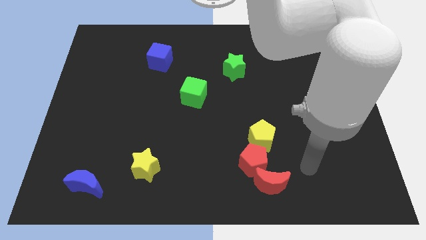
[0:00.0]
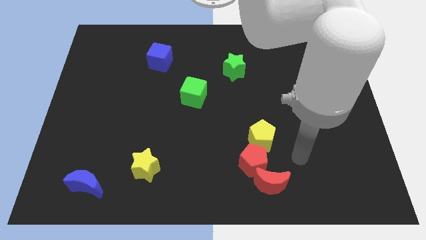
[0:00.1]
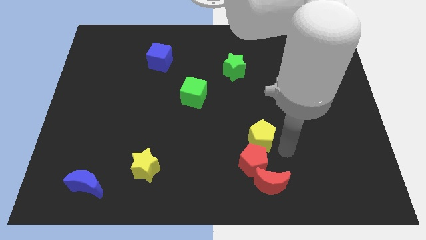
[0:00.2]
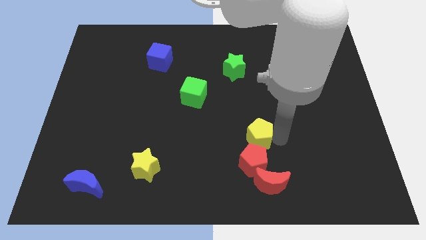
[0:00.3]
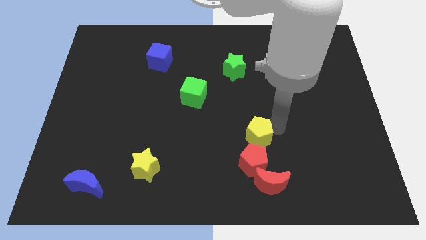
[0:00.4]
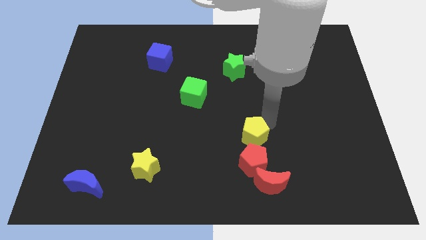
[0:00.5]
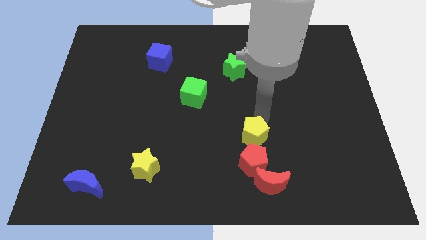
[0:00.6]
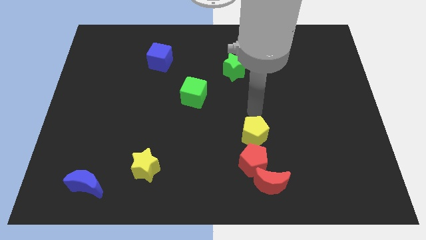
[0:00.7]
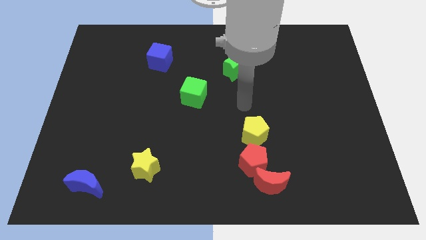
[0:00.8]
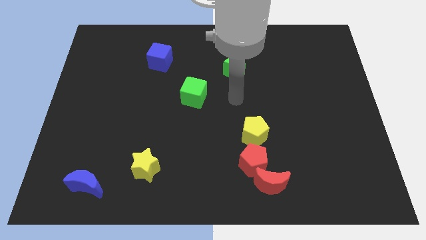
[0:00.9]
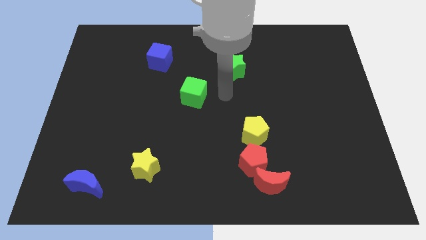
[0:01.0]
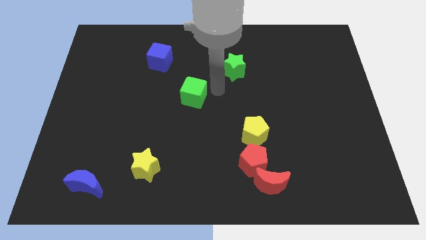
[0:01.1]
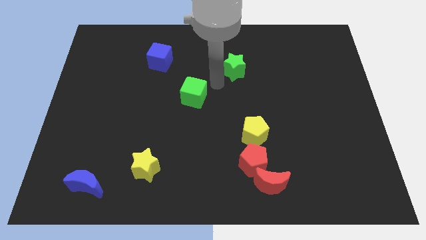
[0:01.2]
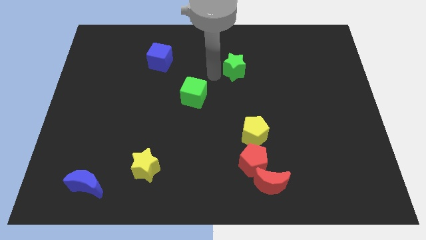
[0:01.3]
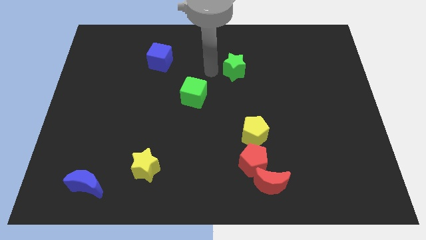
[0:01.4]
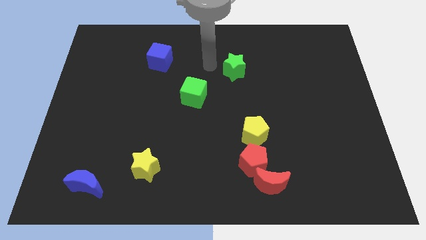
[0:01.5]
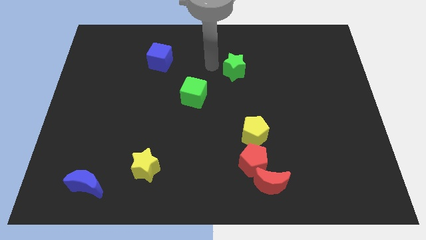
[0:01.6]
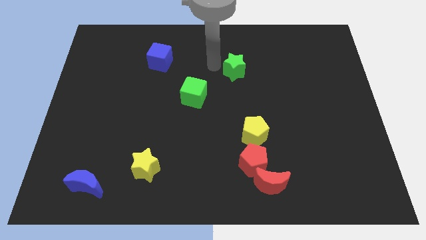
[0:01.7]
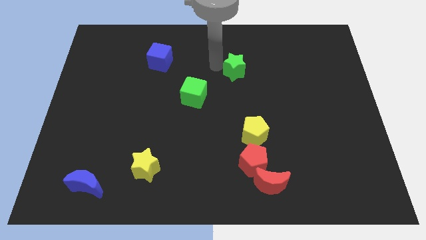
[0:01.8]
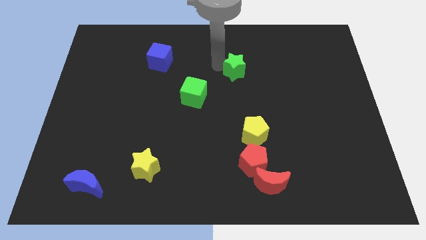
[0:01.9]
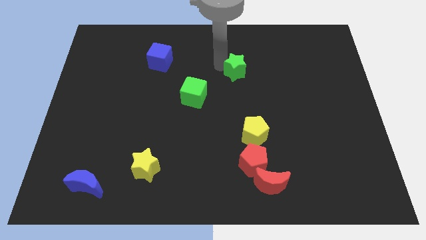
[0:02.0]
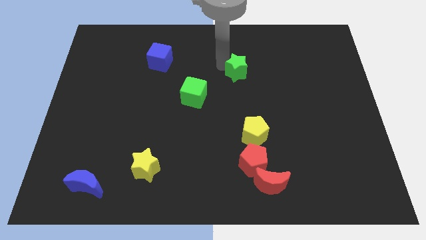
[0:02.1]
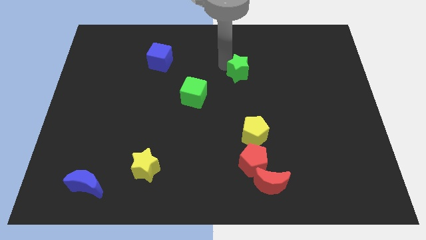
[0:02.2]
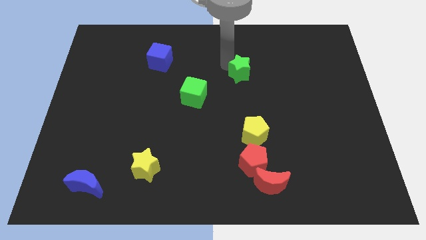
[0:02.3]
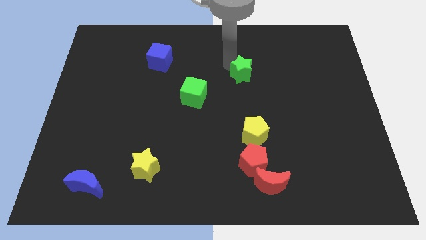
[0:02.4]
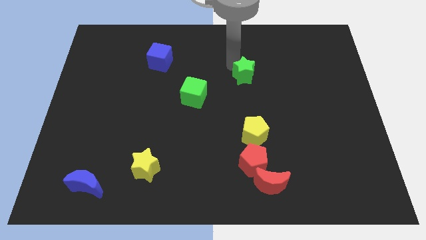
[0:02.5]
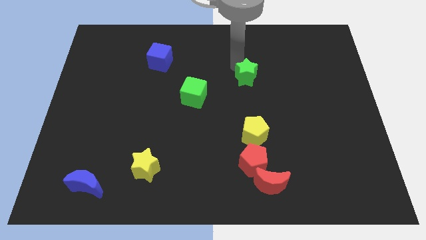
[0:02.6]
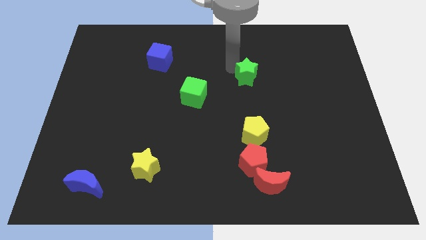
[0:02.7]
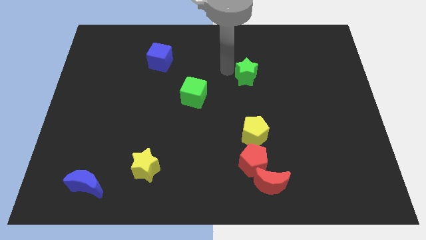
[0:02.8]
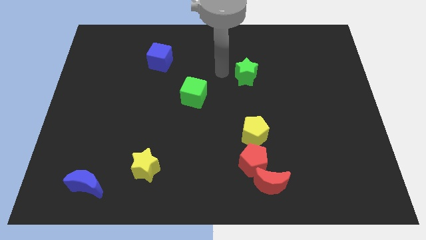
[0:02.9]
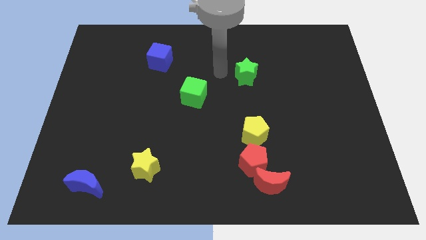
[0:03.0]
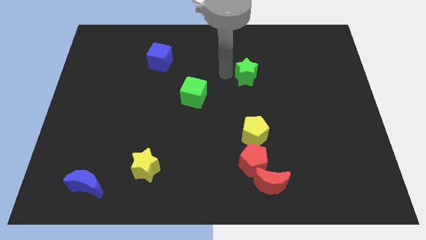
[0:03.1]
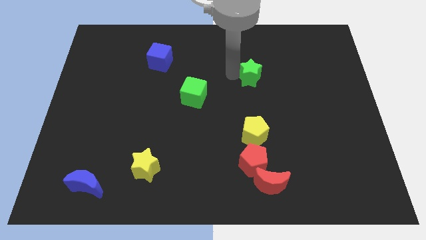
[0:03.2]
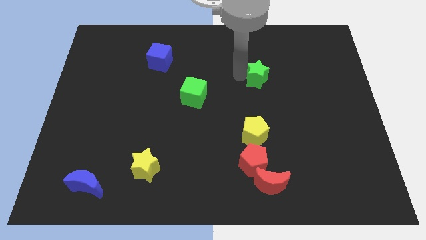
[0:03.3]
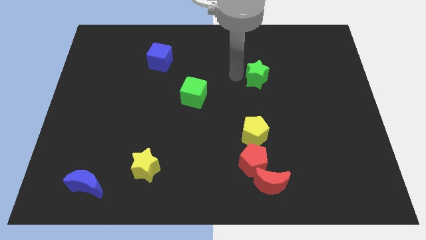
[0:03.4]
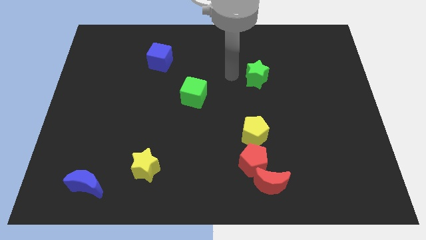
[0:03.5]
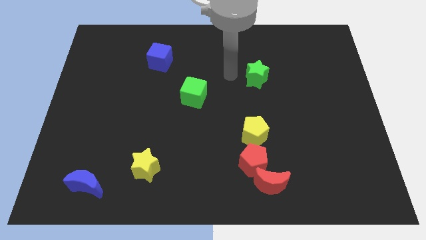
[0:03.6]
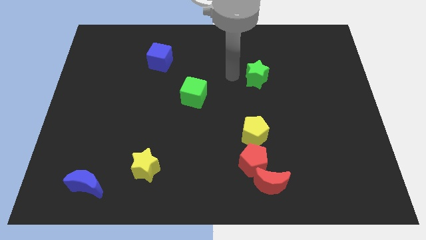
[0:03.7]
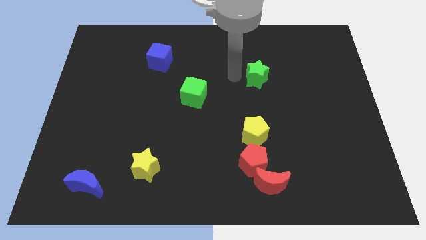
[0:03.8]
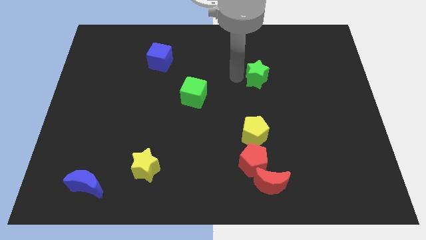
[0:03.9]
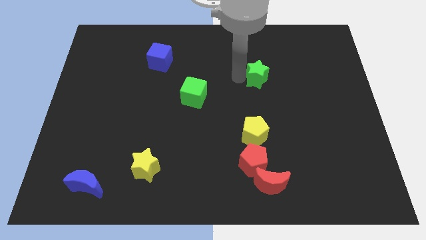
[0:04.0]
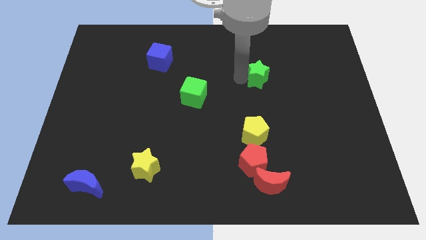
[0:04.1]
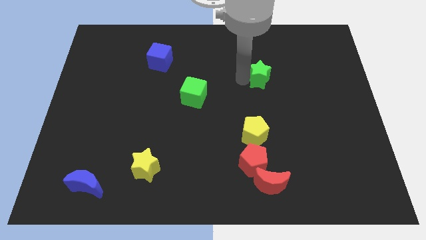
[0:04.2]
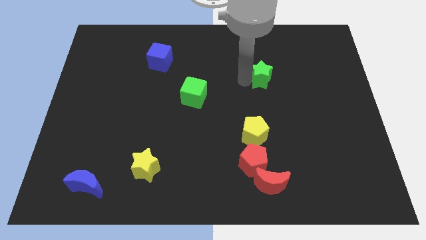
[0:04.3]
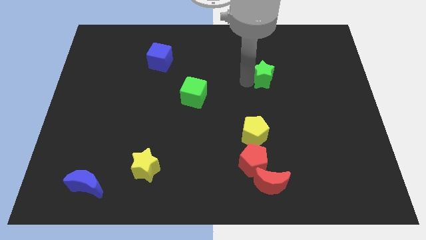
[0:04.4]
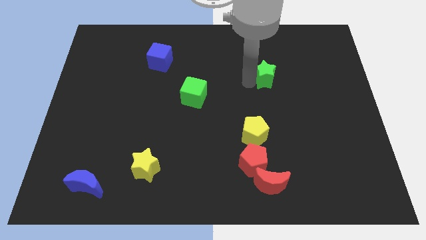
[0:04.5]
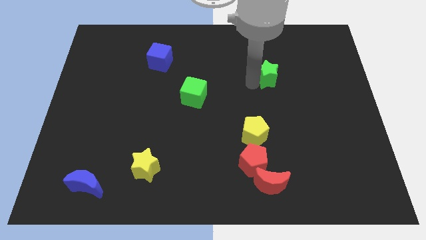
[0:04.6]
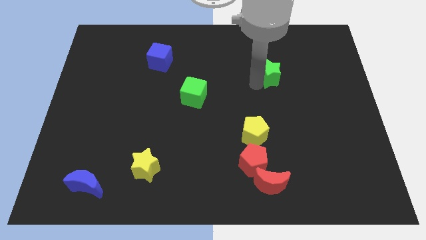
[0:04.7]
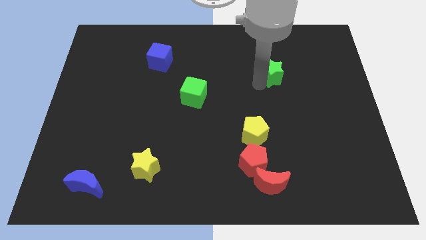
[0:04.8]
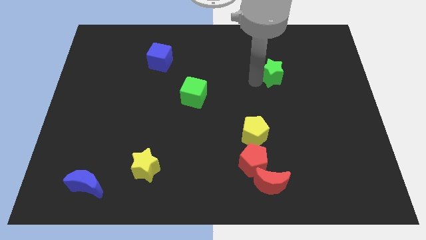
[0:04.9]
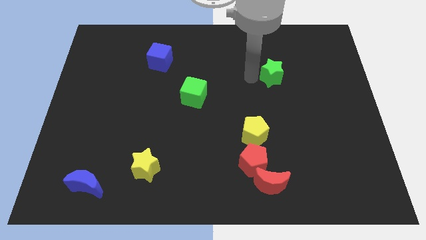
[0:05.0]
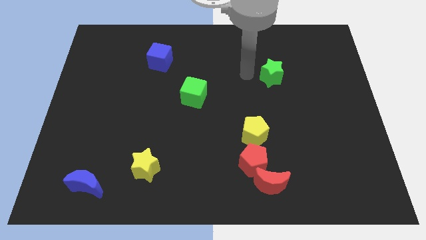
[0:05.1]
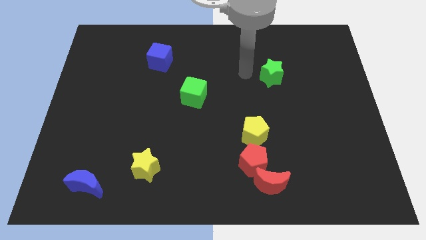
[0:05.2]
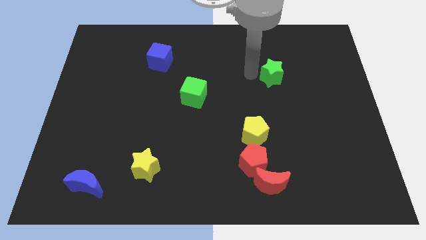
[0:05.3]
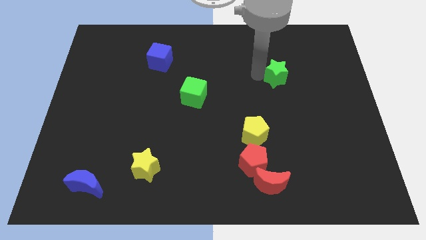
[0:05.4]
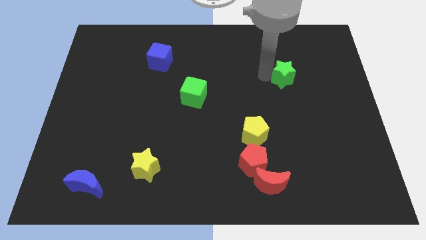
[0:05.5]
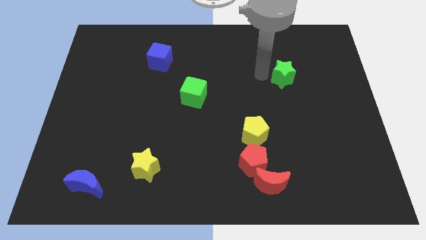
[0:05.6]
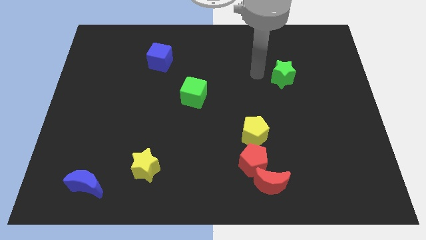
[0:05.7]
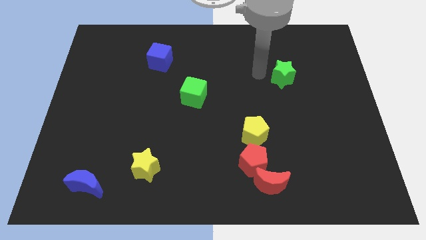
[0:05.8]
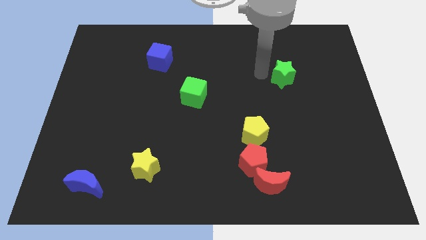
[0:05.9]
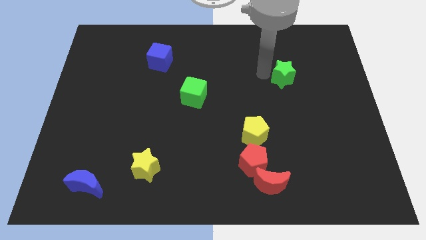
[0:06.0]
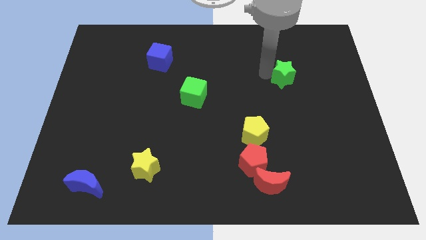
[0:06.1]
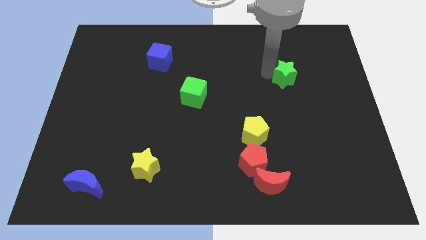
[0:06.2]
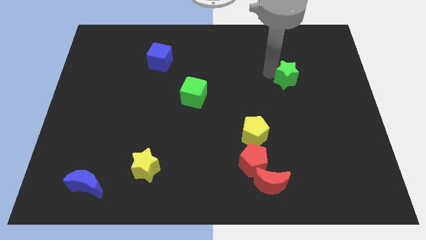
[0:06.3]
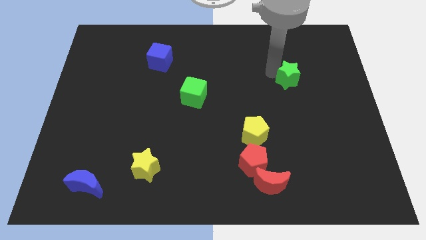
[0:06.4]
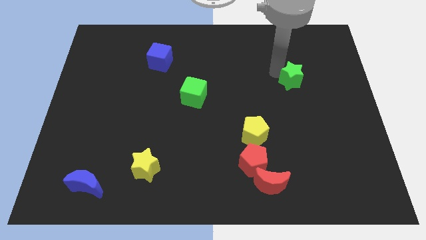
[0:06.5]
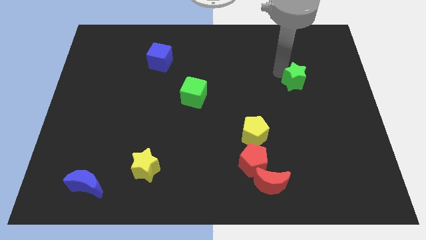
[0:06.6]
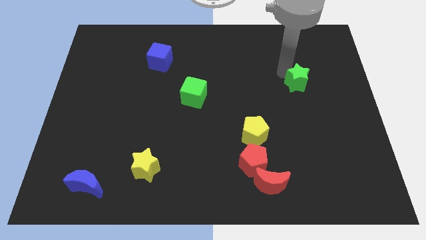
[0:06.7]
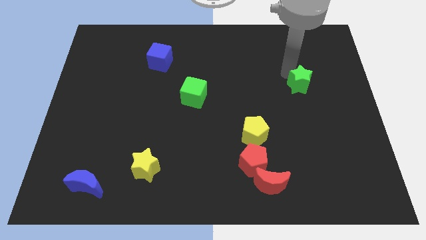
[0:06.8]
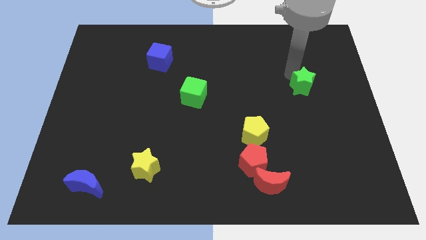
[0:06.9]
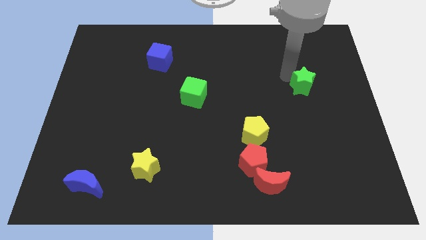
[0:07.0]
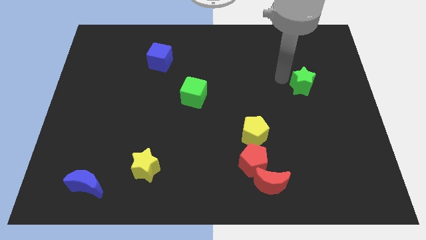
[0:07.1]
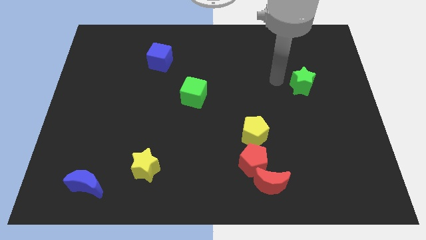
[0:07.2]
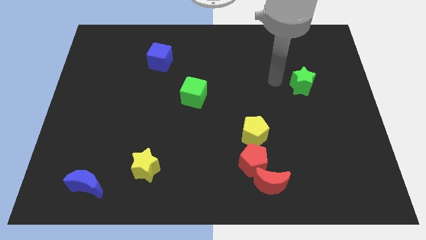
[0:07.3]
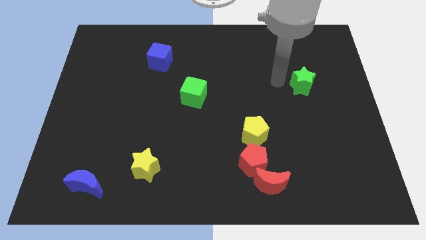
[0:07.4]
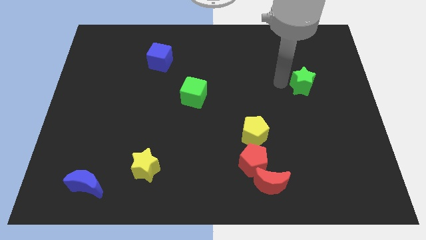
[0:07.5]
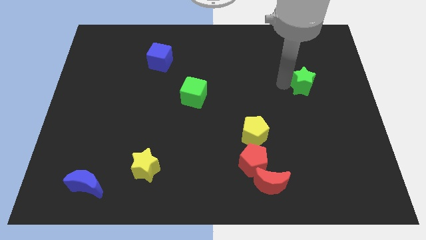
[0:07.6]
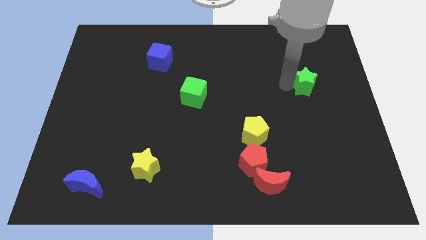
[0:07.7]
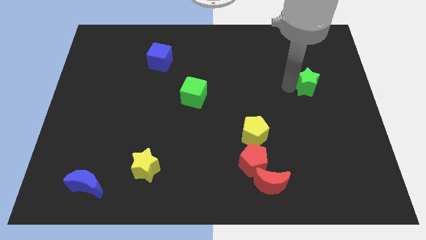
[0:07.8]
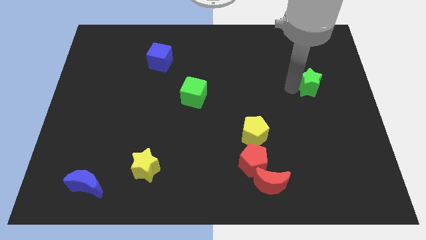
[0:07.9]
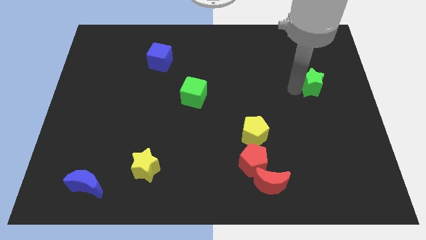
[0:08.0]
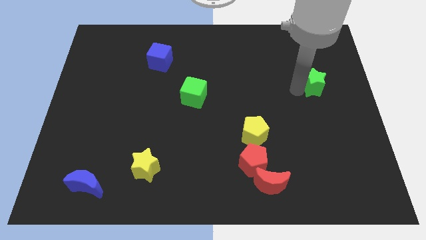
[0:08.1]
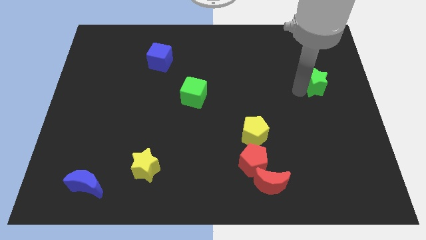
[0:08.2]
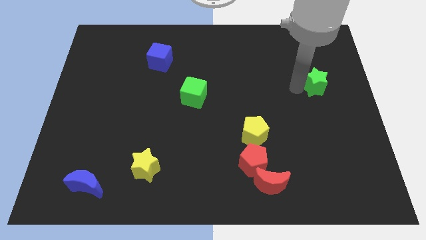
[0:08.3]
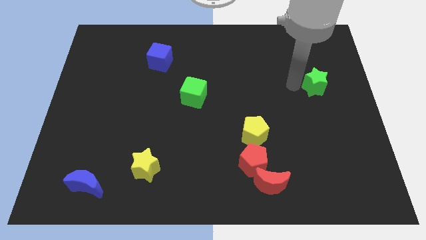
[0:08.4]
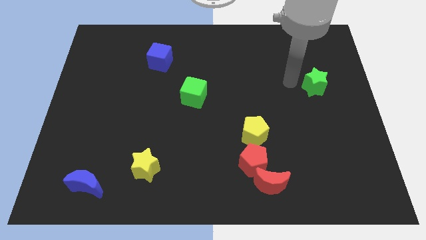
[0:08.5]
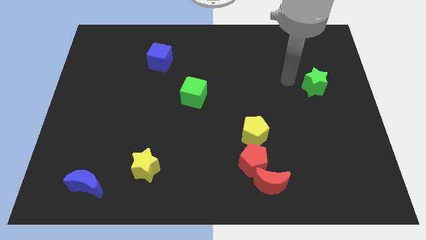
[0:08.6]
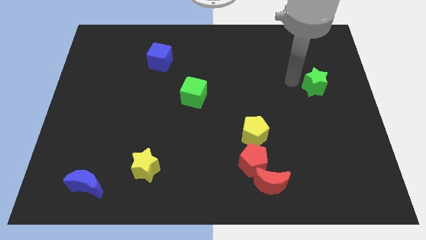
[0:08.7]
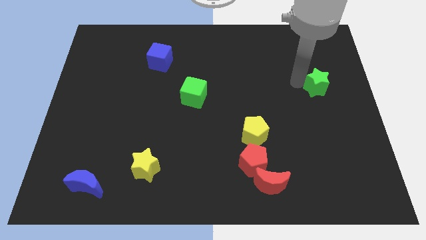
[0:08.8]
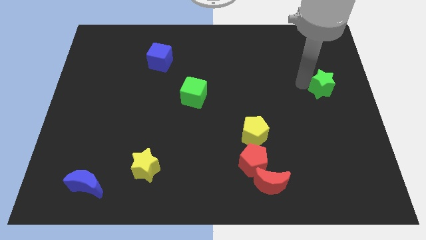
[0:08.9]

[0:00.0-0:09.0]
slide the green star to the center right
